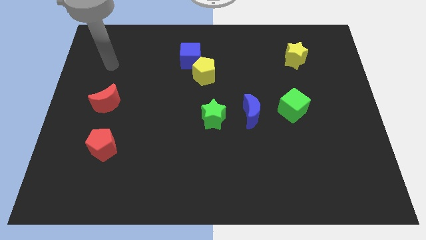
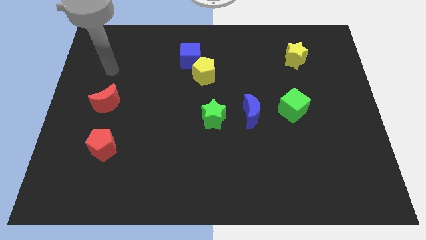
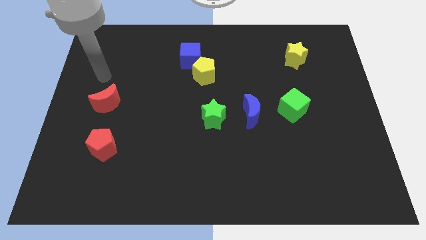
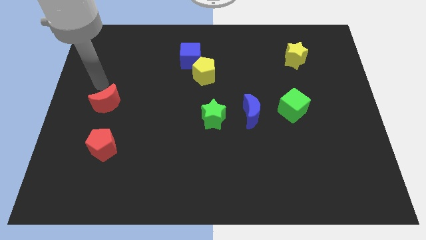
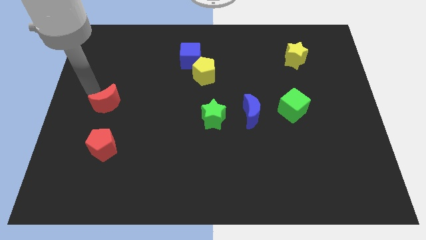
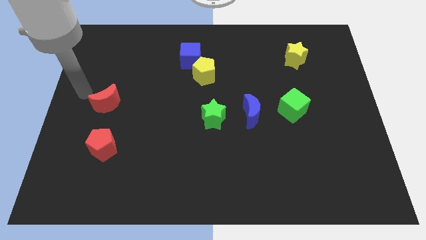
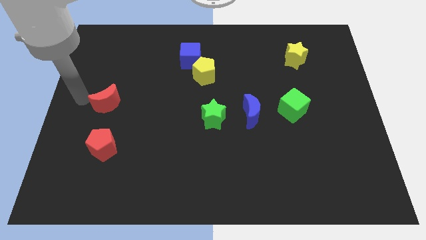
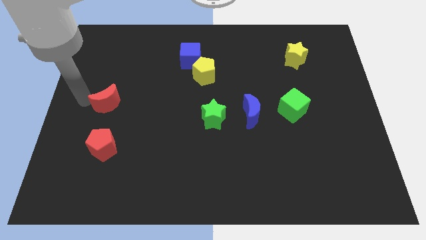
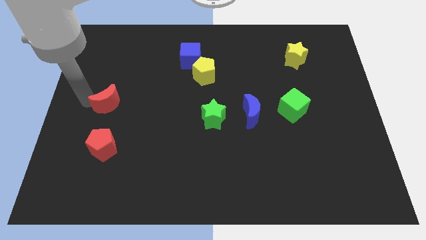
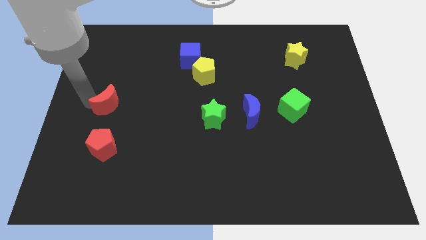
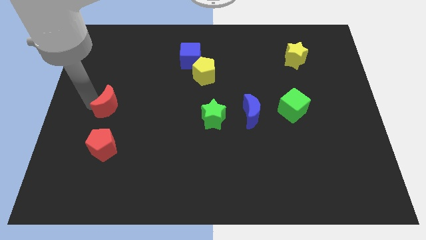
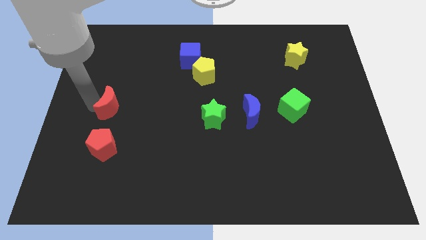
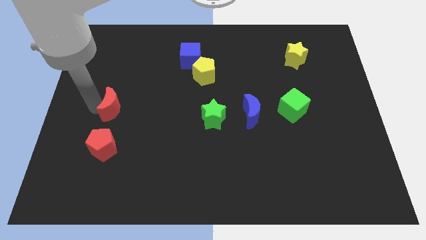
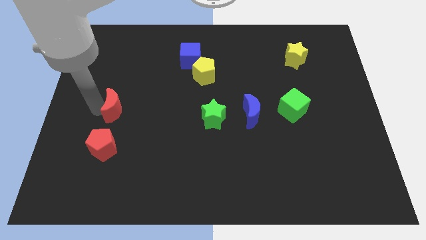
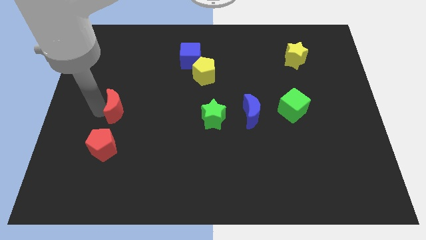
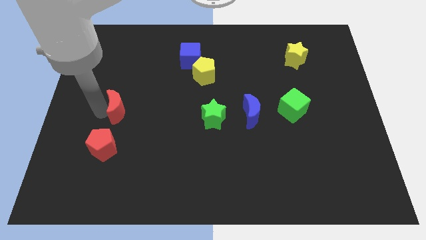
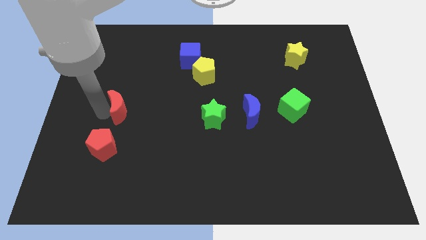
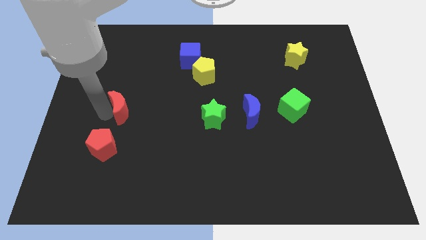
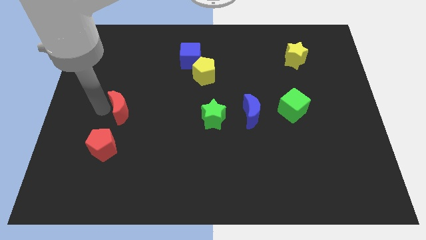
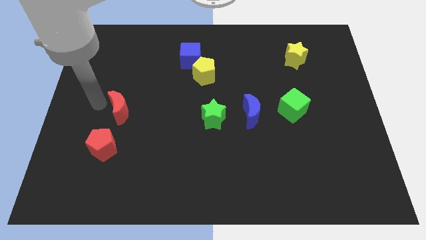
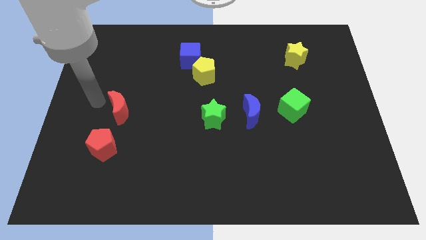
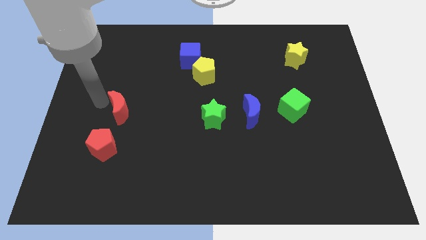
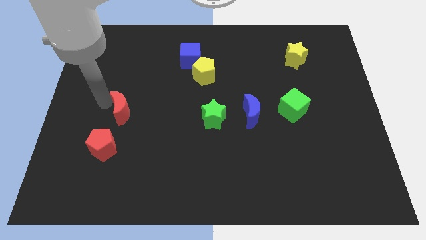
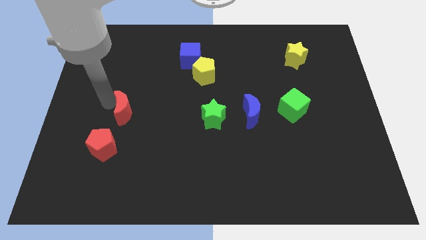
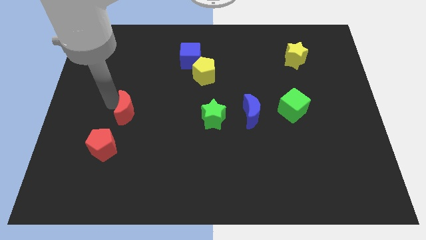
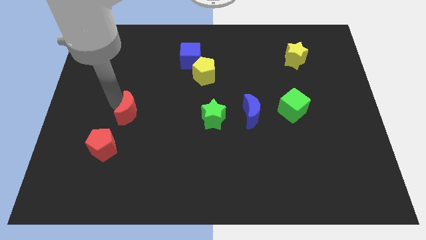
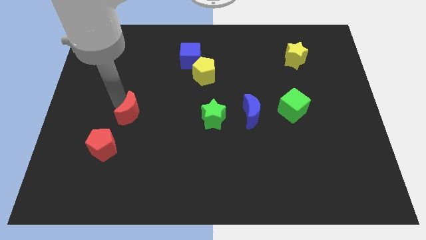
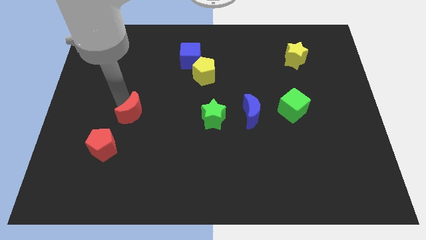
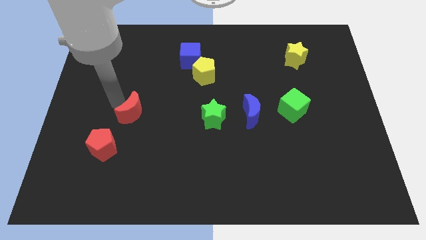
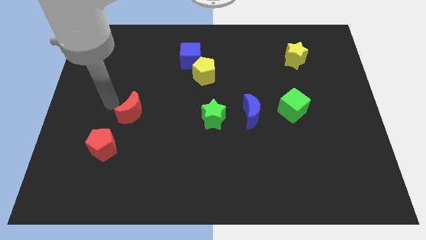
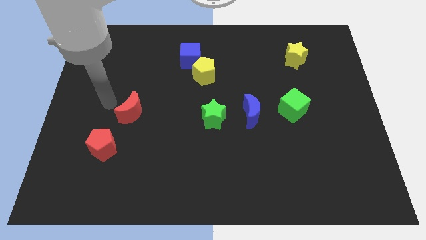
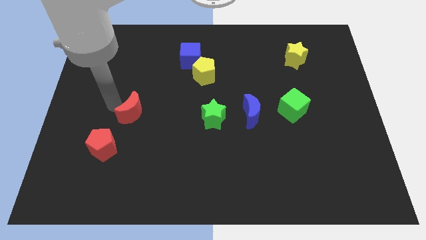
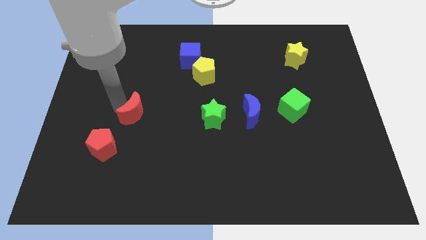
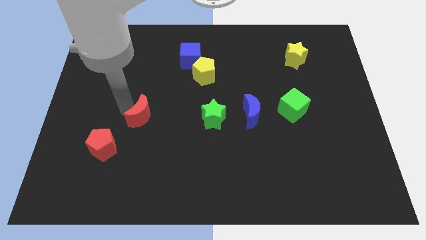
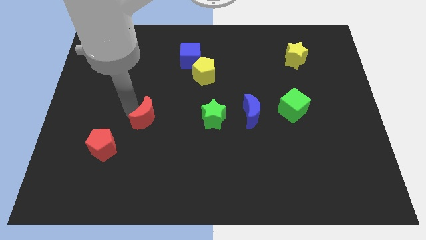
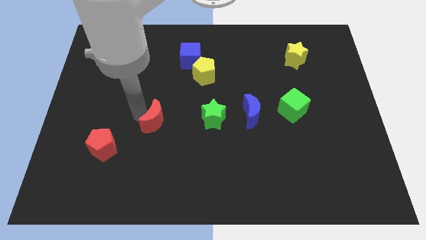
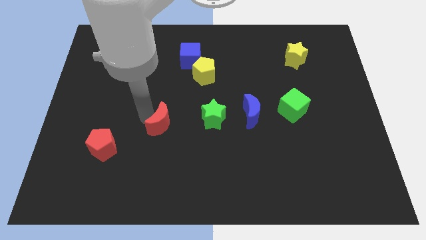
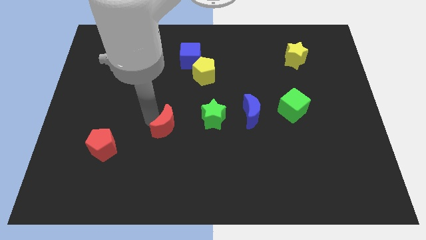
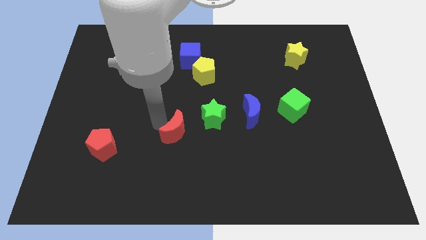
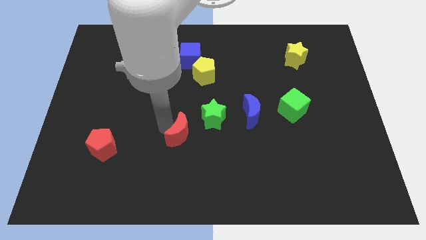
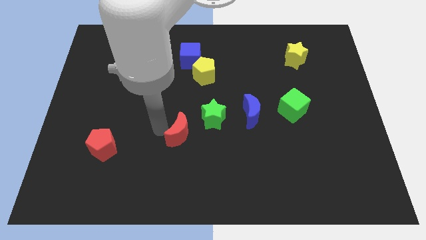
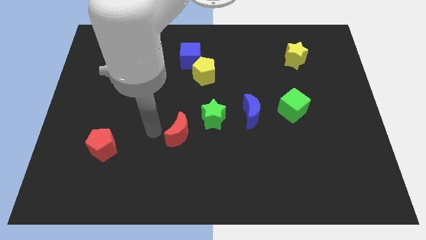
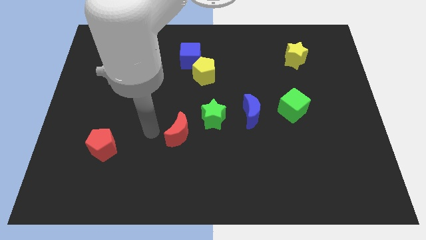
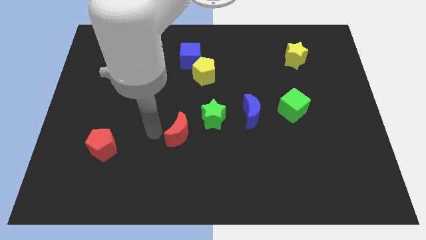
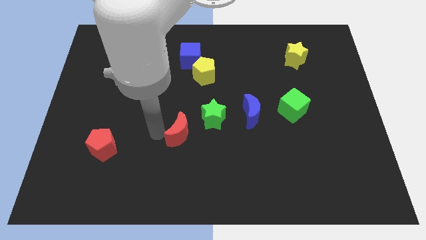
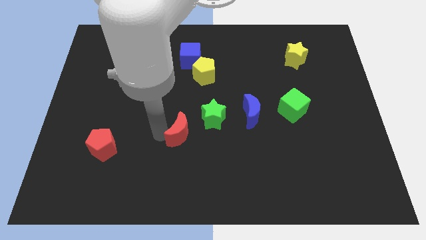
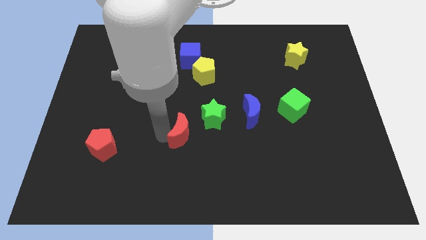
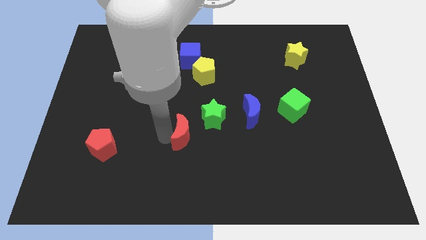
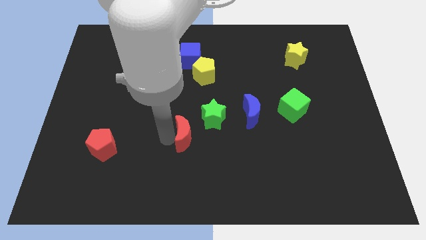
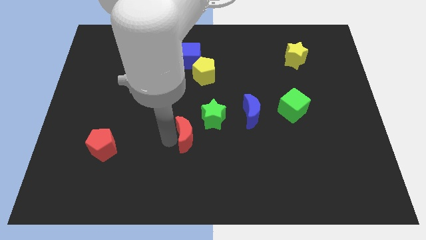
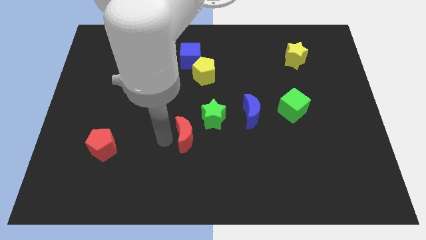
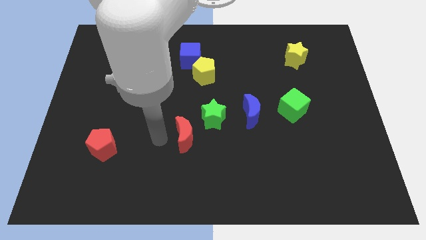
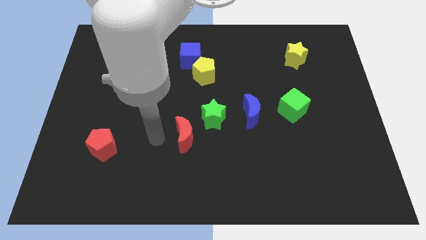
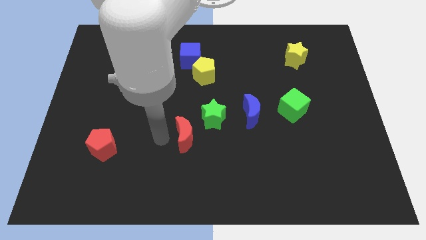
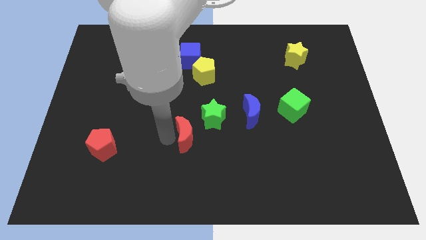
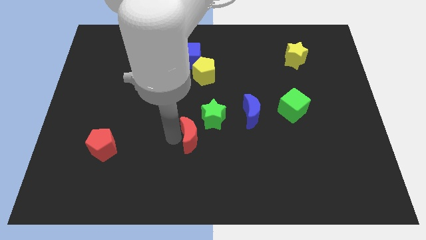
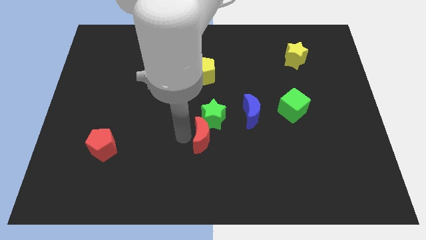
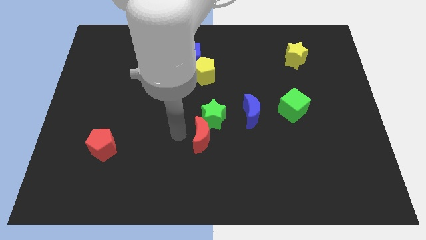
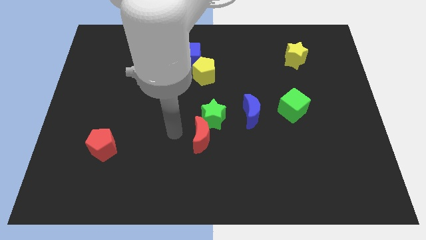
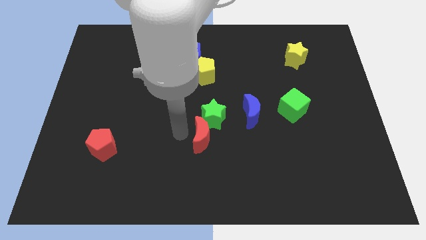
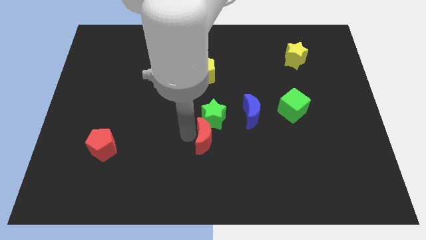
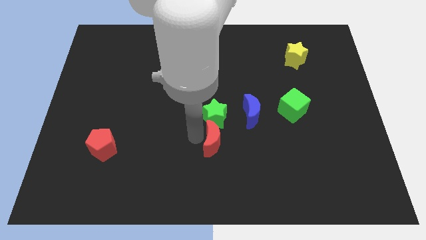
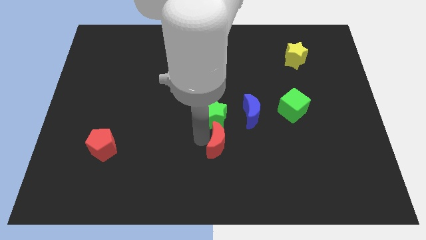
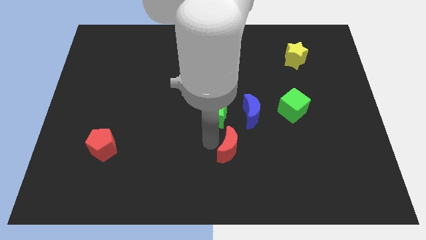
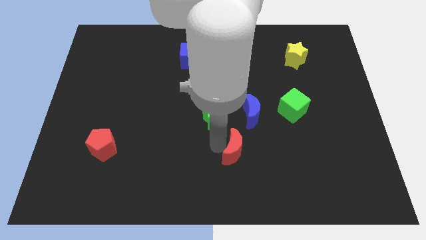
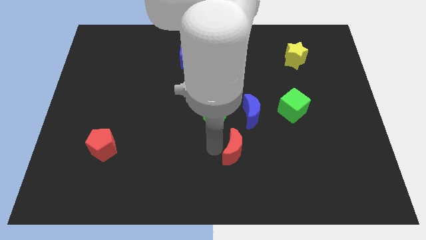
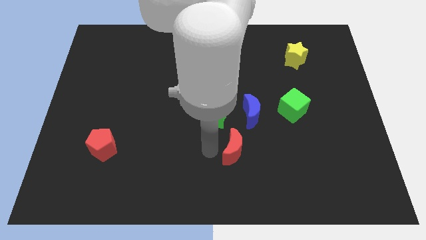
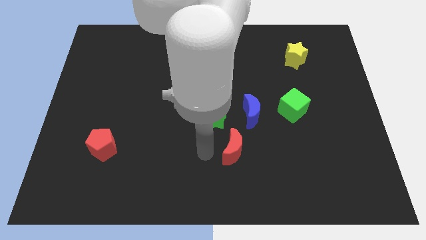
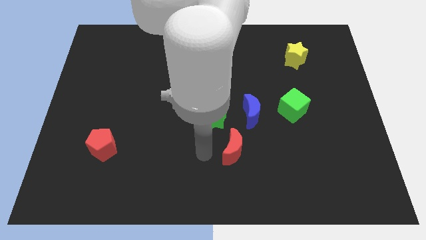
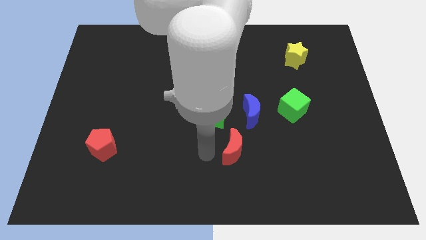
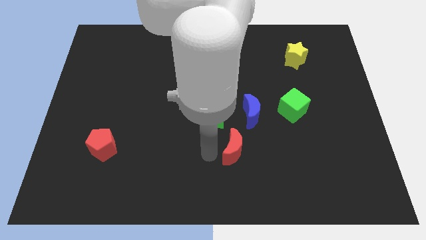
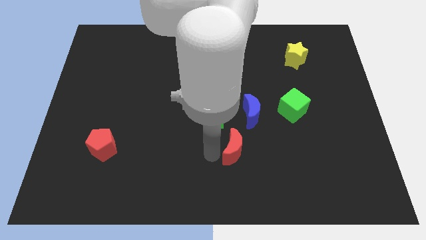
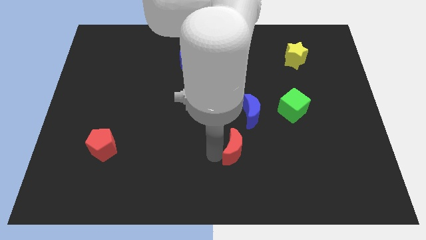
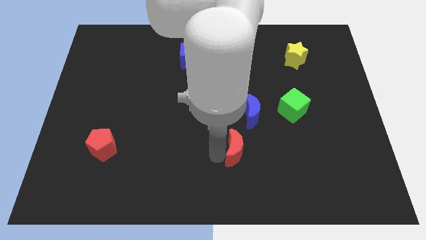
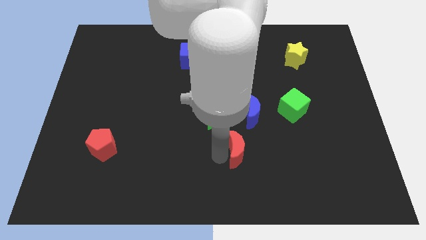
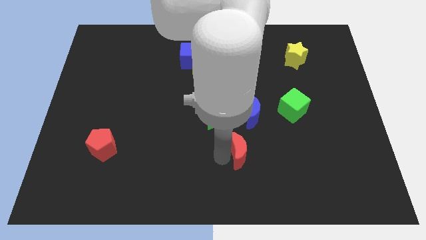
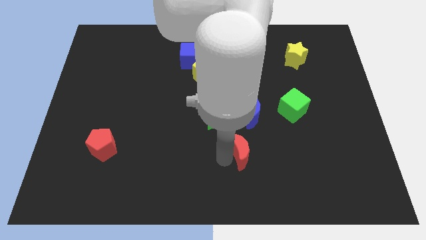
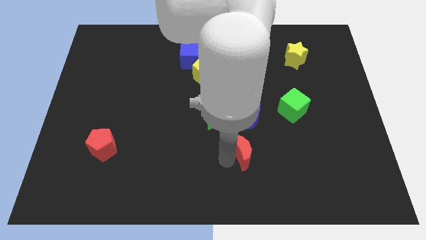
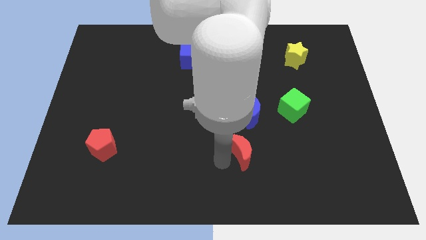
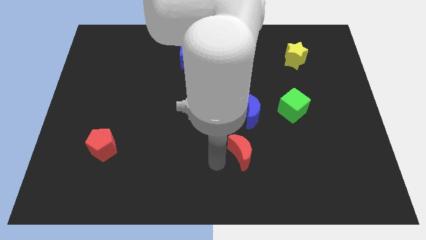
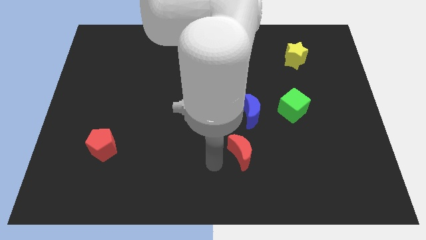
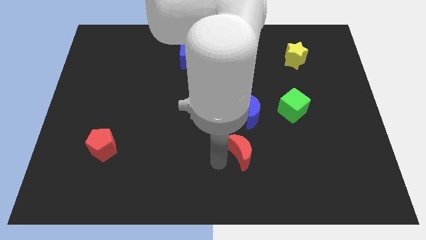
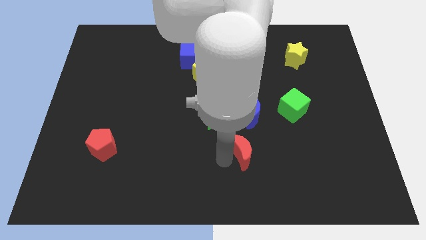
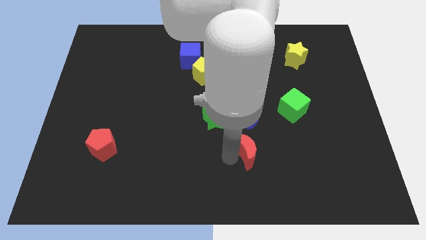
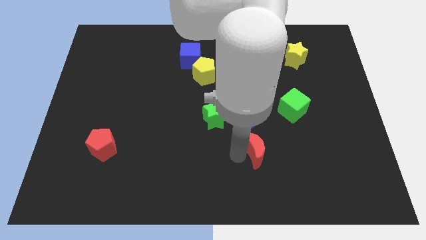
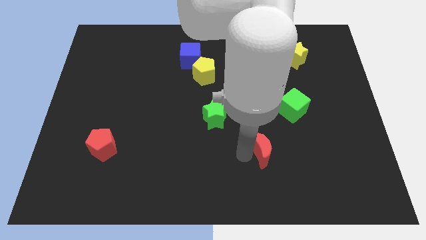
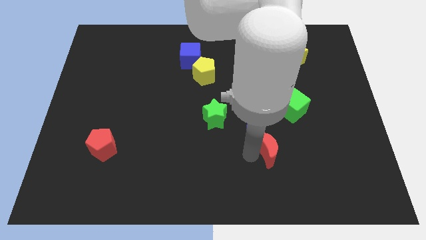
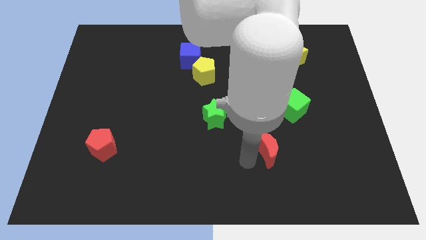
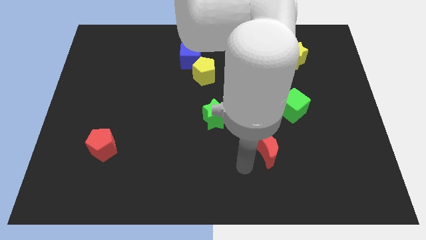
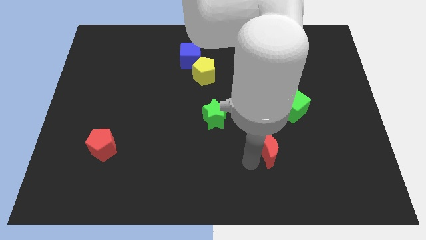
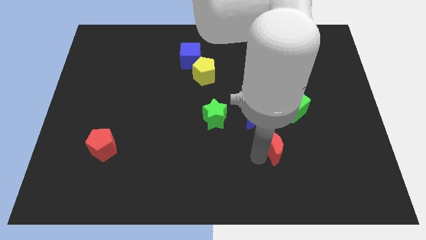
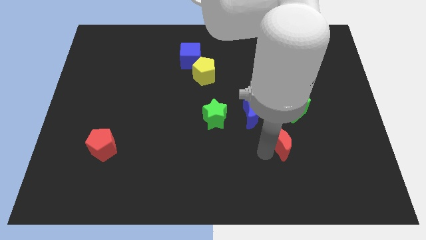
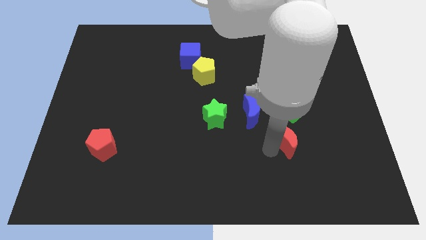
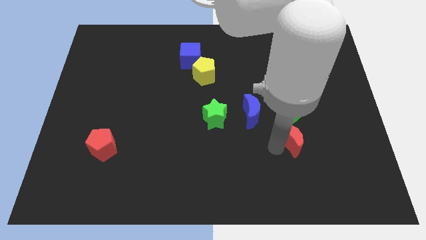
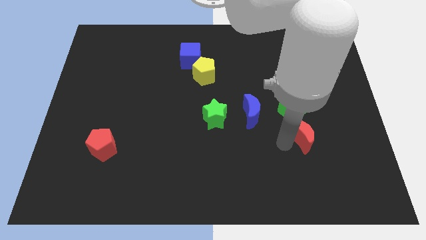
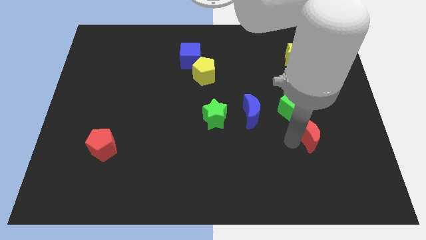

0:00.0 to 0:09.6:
put the red moon to the bottom right side of the green cube
